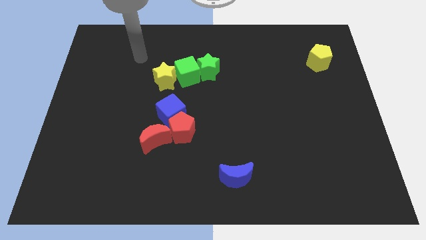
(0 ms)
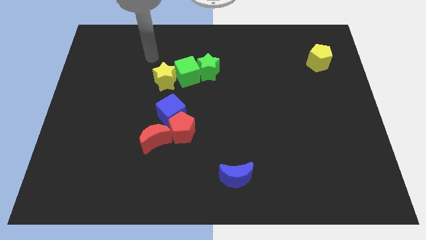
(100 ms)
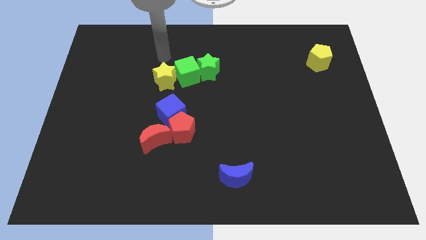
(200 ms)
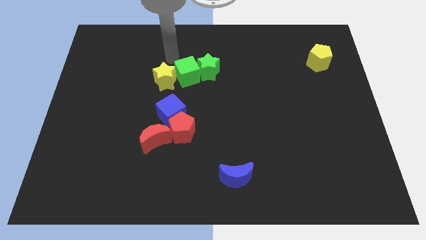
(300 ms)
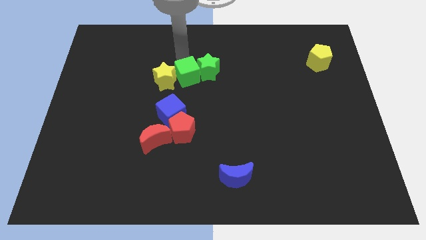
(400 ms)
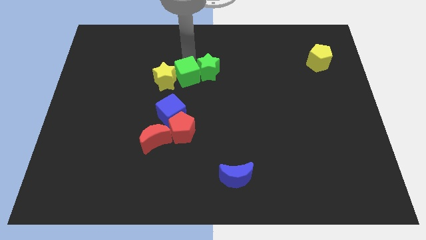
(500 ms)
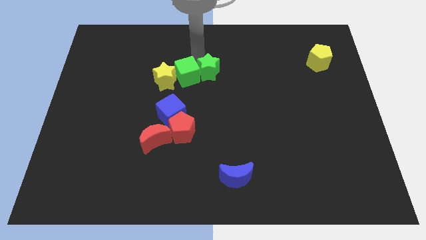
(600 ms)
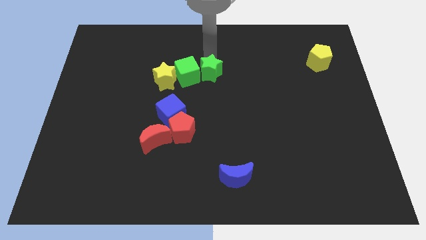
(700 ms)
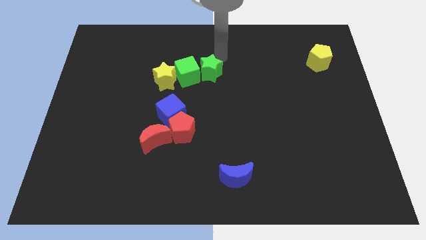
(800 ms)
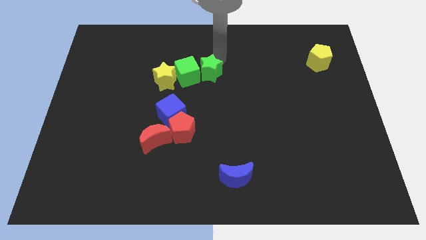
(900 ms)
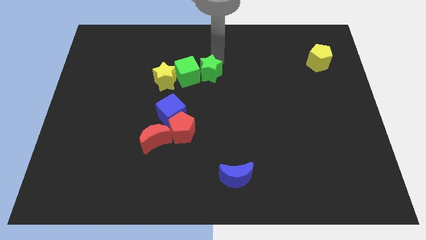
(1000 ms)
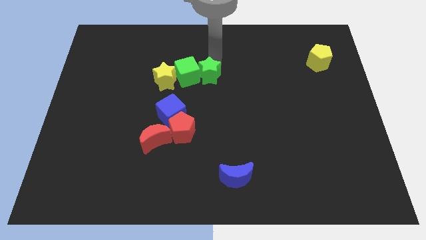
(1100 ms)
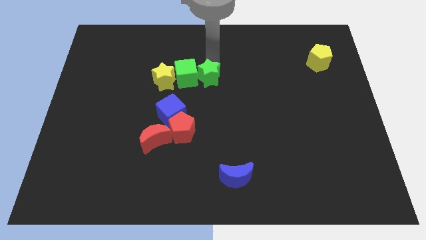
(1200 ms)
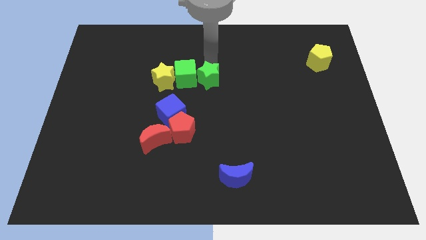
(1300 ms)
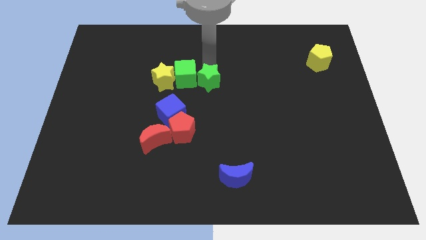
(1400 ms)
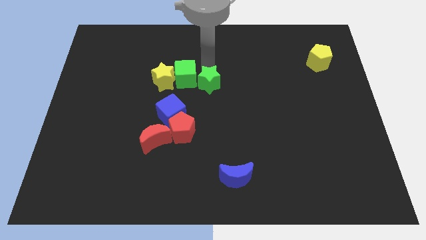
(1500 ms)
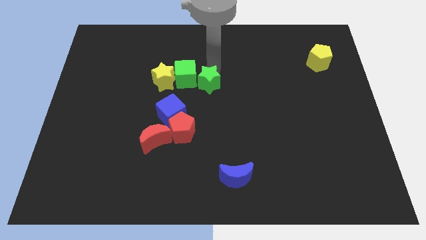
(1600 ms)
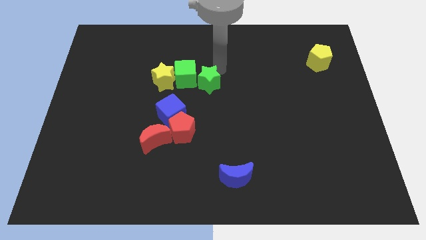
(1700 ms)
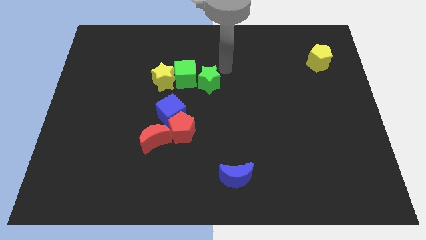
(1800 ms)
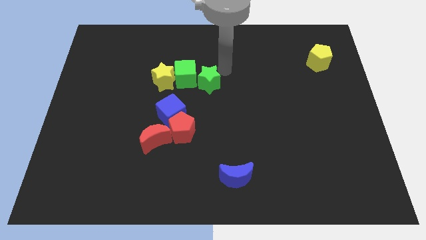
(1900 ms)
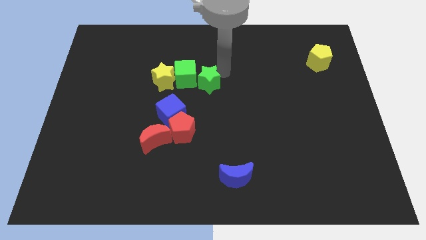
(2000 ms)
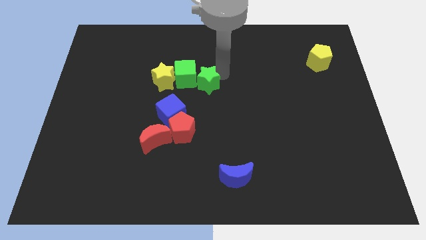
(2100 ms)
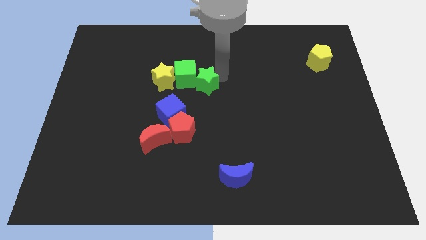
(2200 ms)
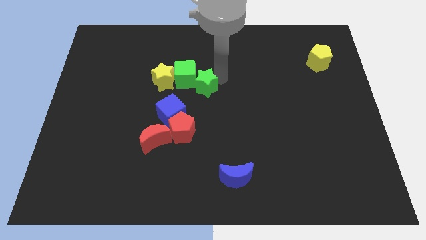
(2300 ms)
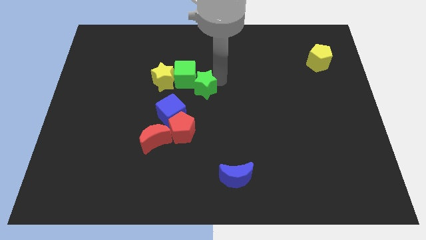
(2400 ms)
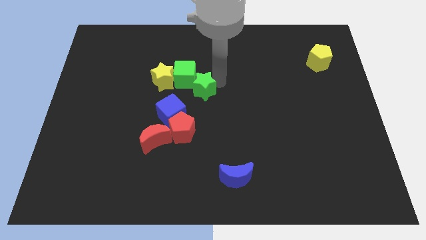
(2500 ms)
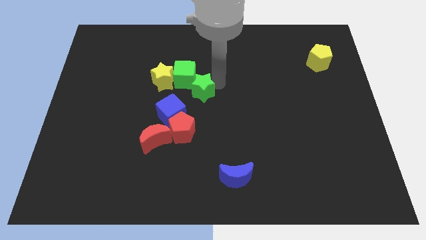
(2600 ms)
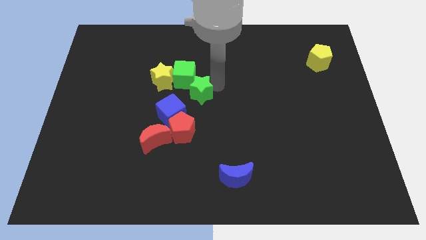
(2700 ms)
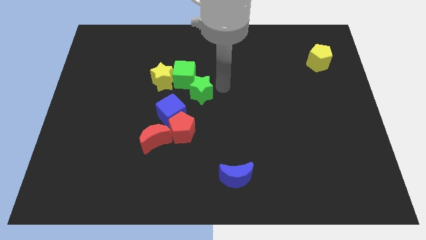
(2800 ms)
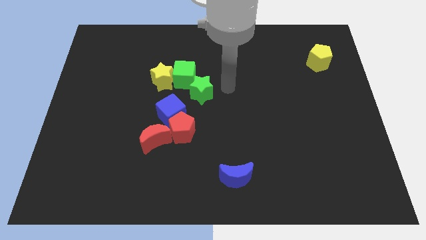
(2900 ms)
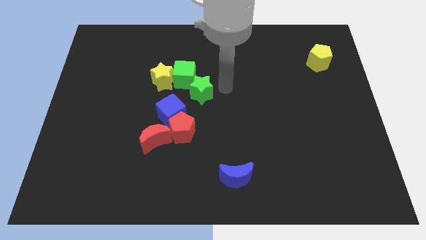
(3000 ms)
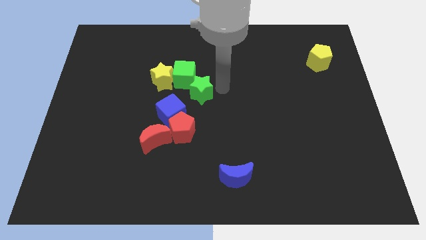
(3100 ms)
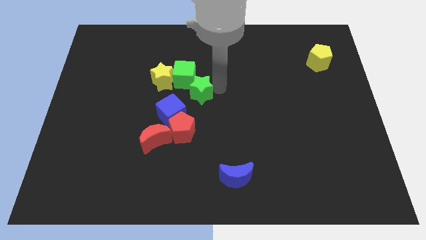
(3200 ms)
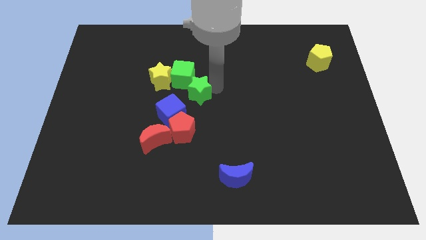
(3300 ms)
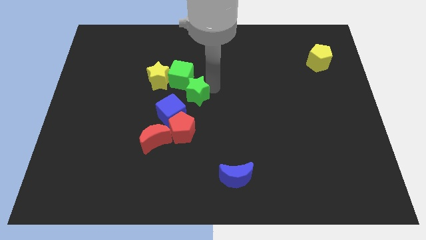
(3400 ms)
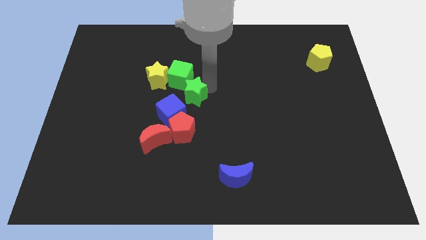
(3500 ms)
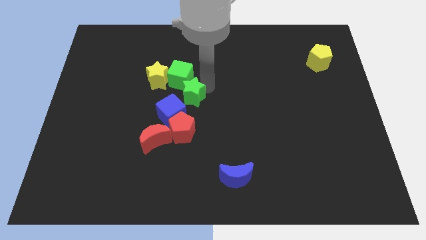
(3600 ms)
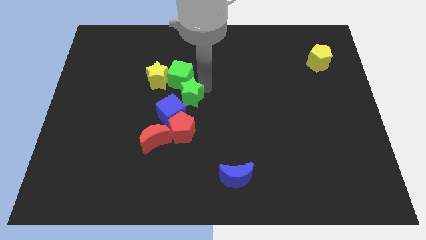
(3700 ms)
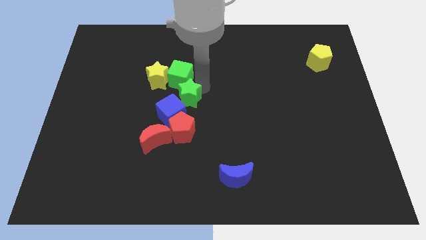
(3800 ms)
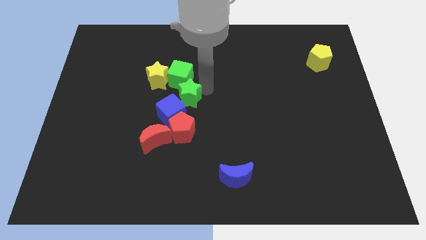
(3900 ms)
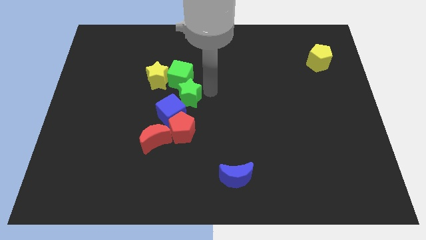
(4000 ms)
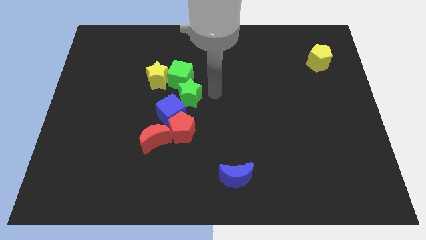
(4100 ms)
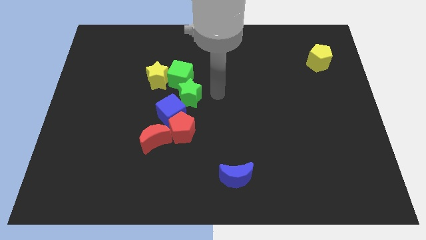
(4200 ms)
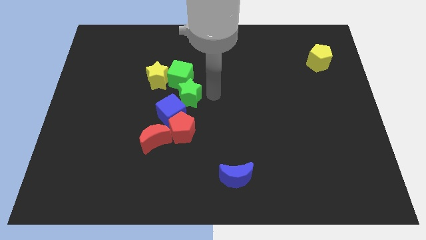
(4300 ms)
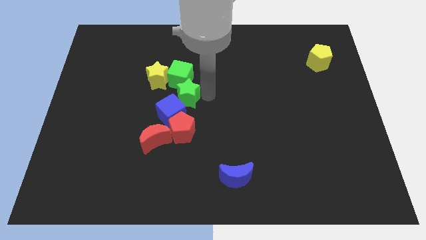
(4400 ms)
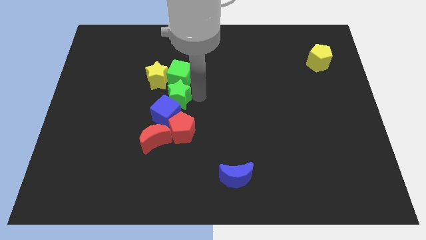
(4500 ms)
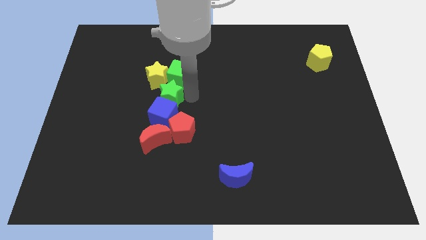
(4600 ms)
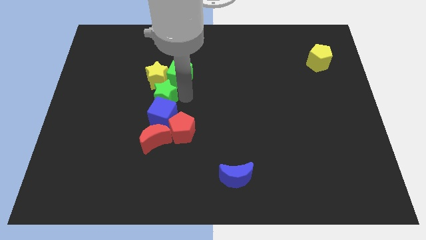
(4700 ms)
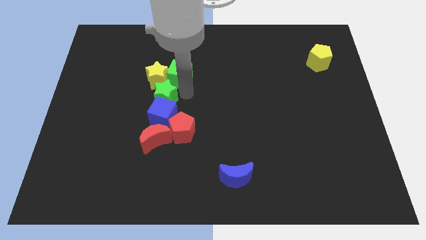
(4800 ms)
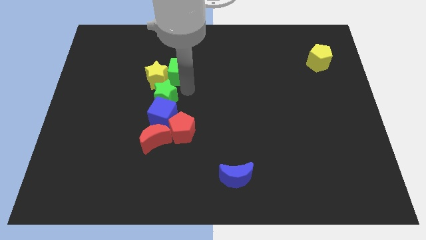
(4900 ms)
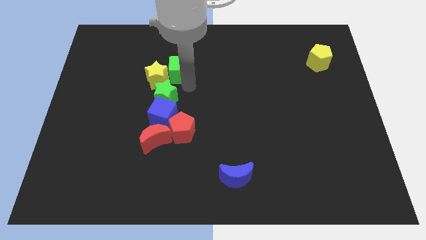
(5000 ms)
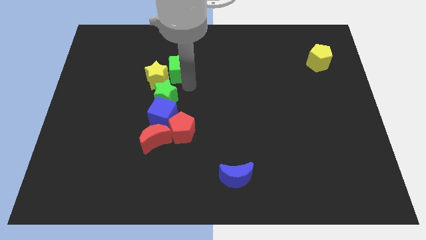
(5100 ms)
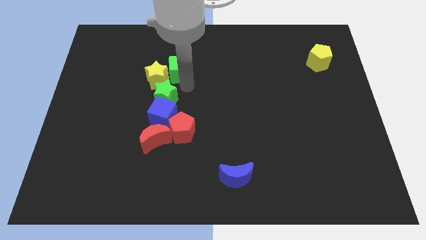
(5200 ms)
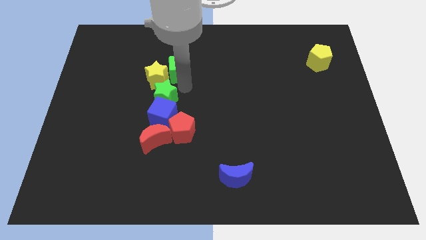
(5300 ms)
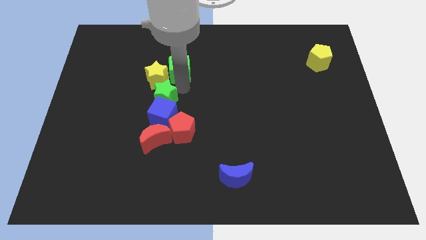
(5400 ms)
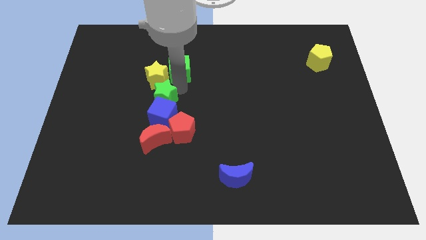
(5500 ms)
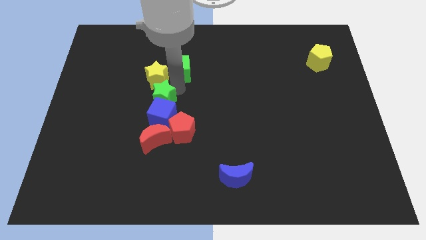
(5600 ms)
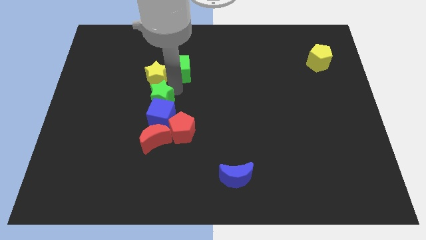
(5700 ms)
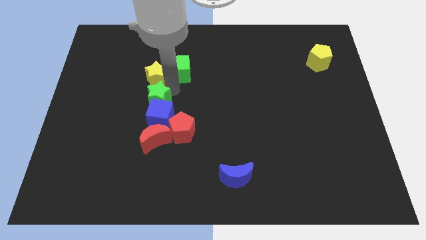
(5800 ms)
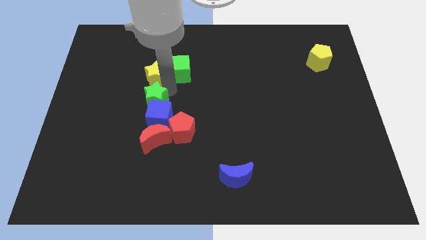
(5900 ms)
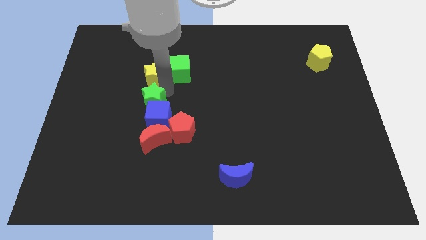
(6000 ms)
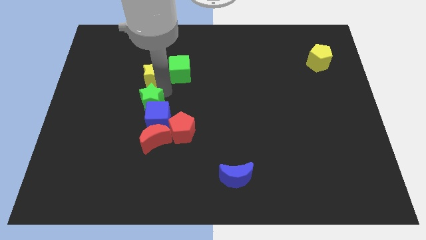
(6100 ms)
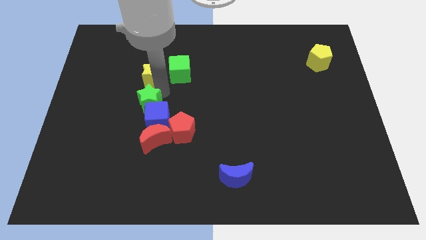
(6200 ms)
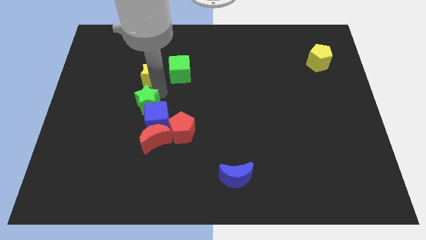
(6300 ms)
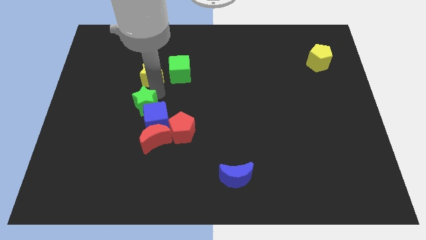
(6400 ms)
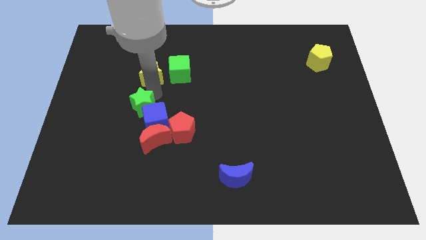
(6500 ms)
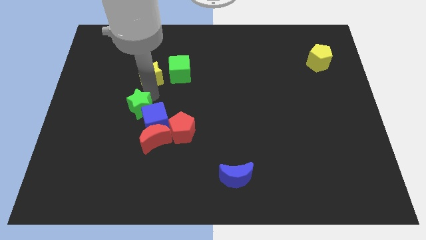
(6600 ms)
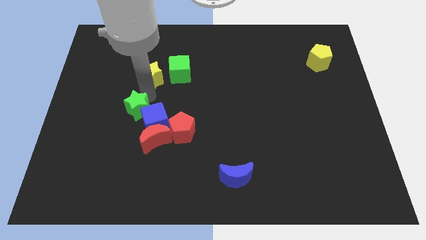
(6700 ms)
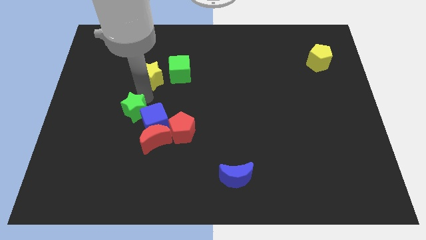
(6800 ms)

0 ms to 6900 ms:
push the green star downwards and then to the left

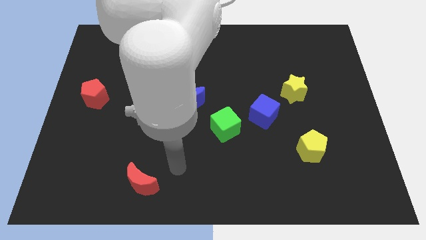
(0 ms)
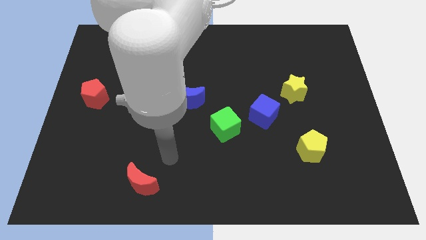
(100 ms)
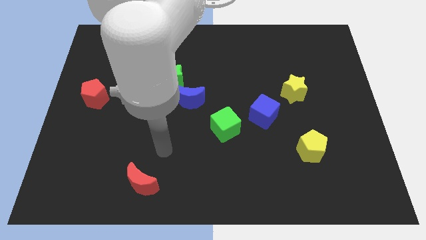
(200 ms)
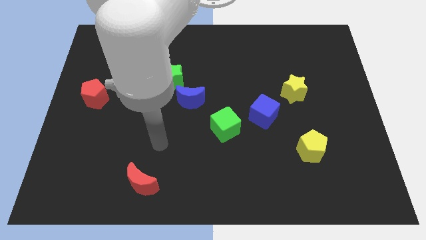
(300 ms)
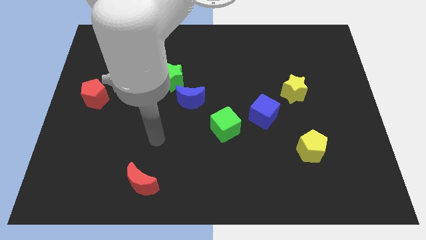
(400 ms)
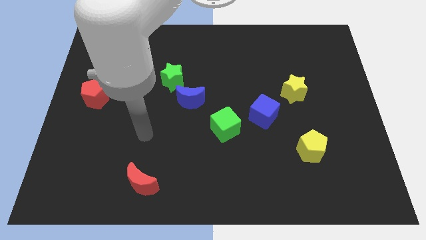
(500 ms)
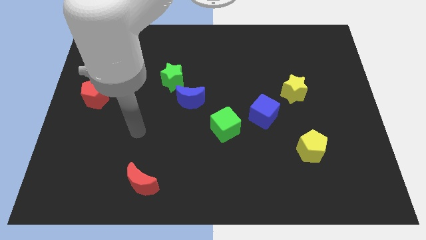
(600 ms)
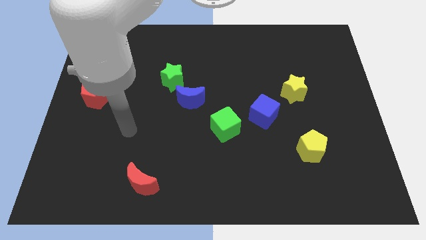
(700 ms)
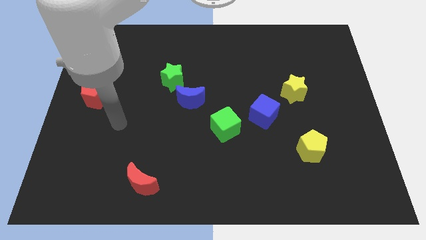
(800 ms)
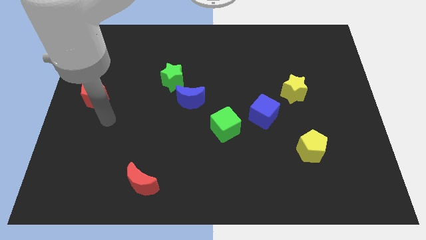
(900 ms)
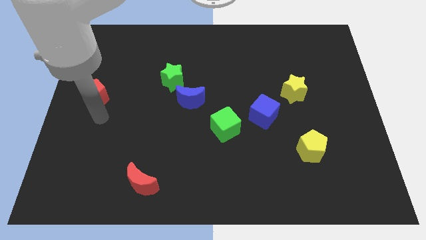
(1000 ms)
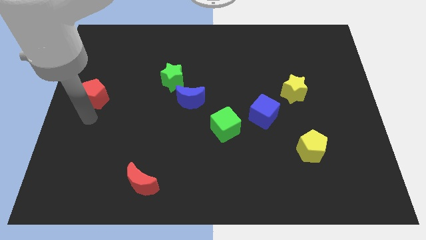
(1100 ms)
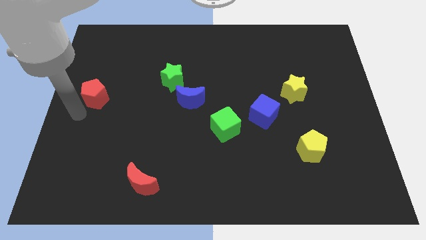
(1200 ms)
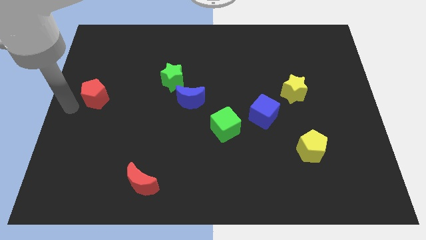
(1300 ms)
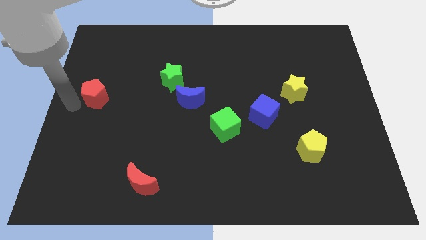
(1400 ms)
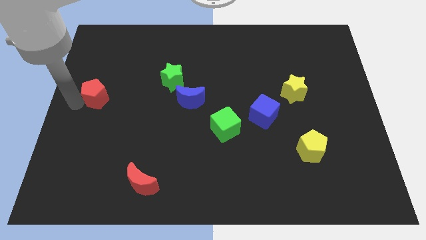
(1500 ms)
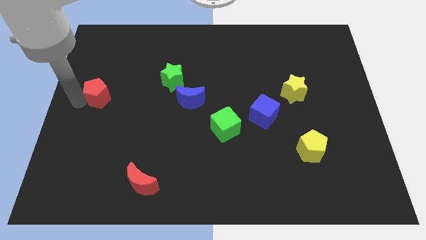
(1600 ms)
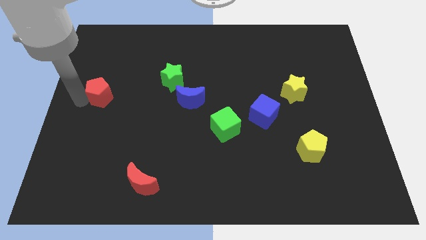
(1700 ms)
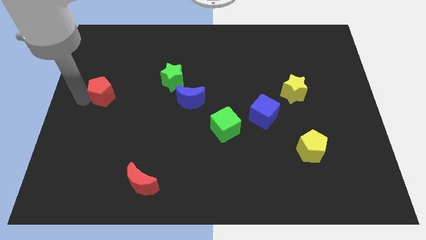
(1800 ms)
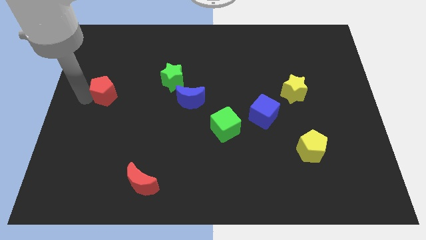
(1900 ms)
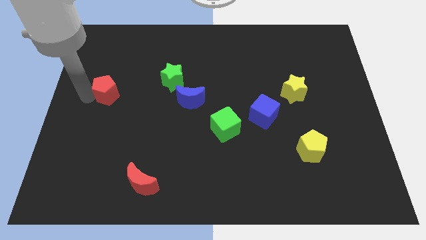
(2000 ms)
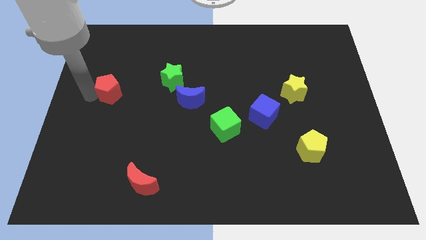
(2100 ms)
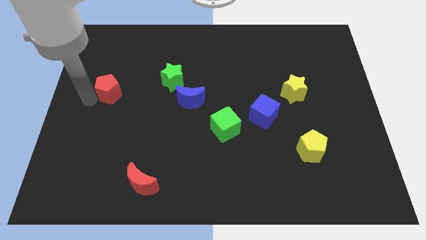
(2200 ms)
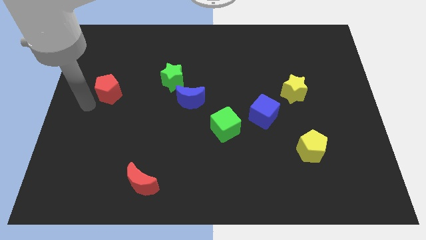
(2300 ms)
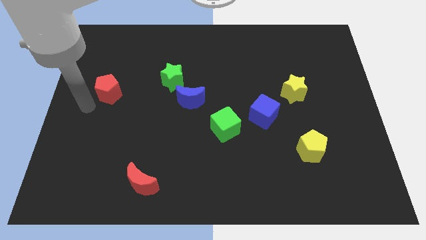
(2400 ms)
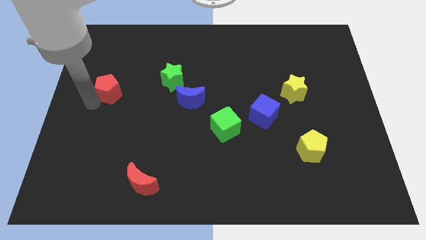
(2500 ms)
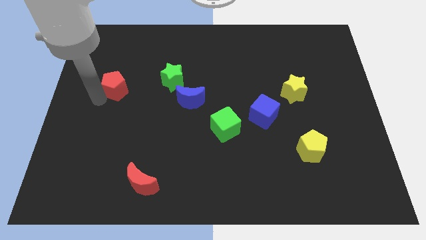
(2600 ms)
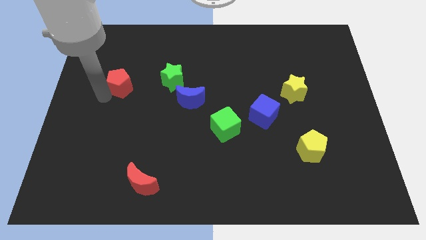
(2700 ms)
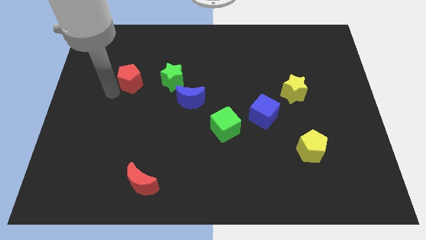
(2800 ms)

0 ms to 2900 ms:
slightly slide the red pentagon upwards and right diagonally
